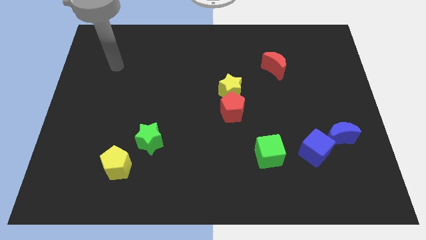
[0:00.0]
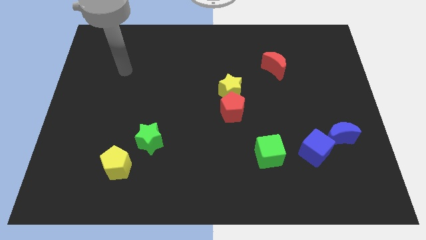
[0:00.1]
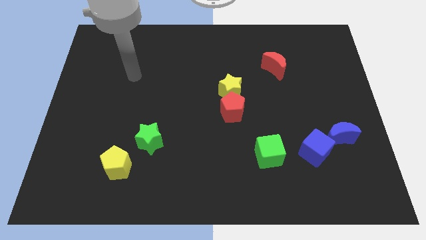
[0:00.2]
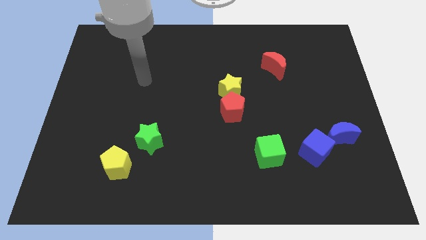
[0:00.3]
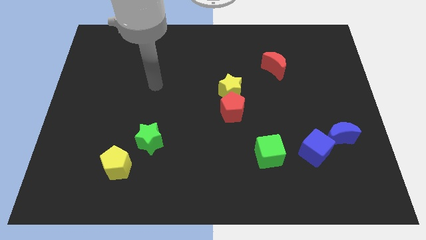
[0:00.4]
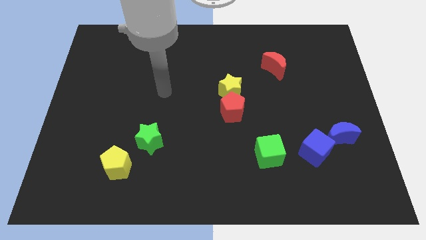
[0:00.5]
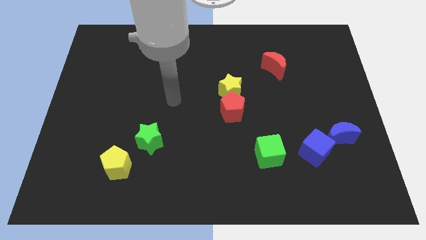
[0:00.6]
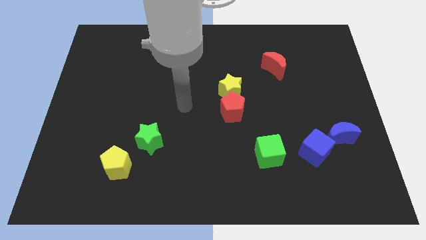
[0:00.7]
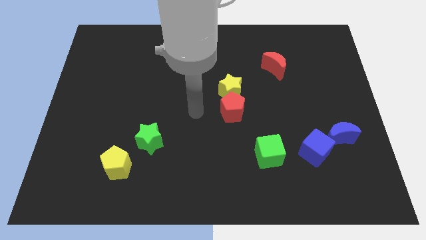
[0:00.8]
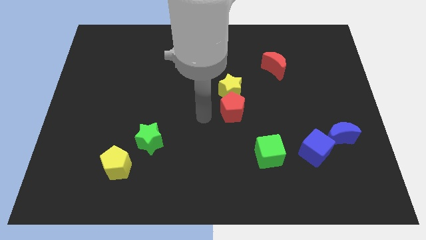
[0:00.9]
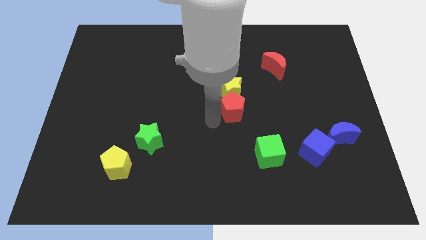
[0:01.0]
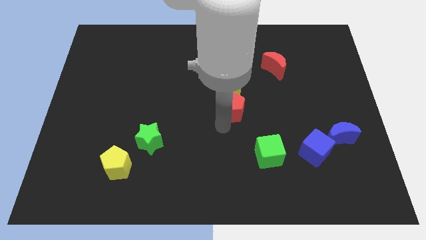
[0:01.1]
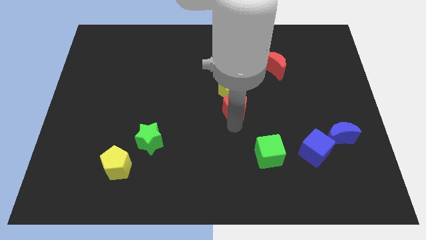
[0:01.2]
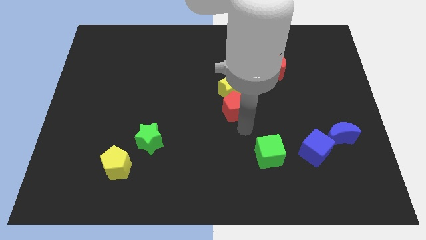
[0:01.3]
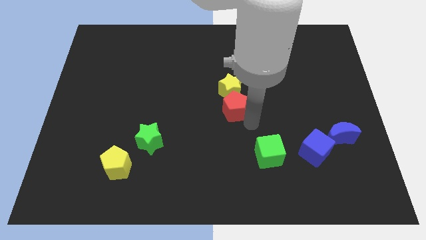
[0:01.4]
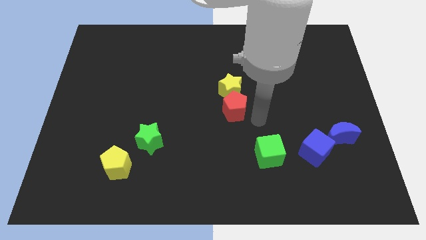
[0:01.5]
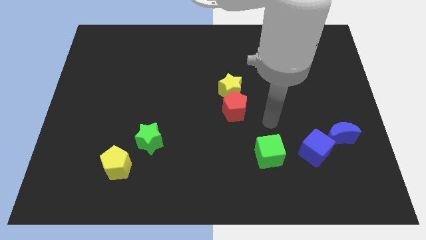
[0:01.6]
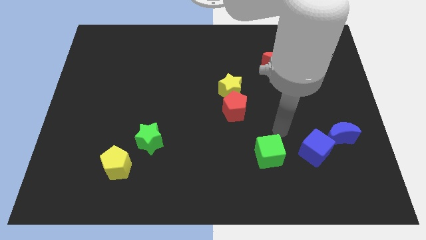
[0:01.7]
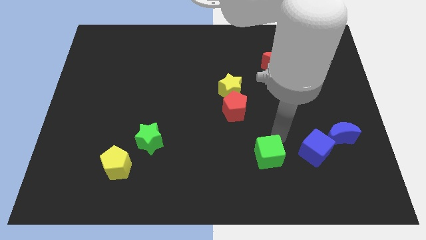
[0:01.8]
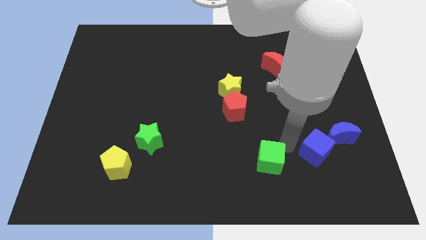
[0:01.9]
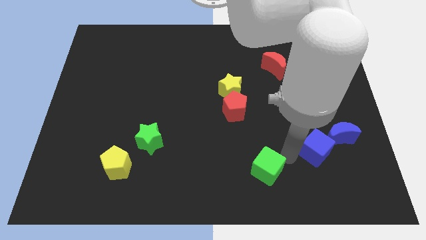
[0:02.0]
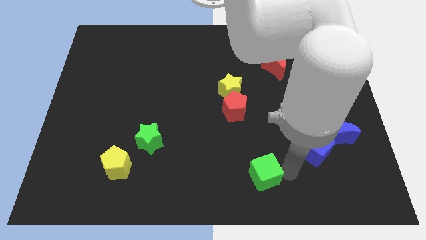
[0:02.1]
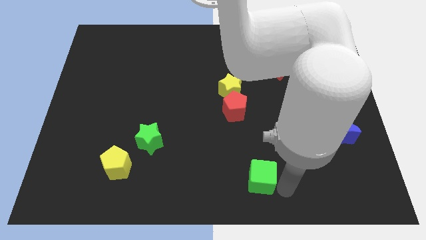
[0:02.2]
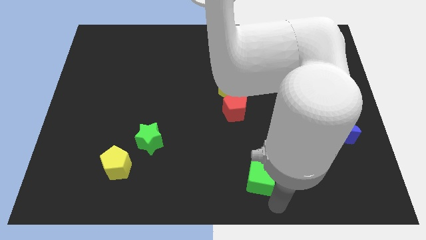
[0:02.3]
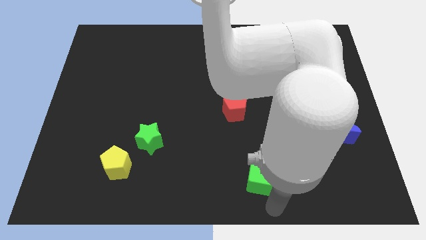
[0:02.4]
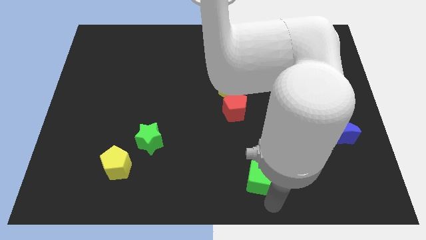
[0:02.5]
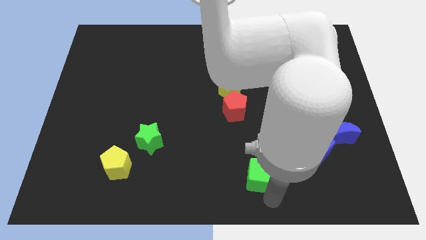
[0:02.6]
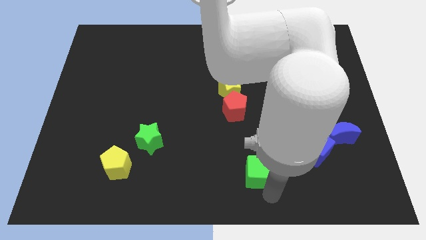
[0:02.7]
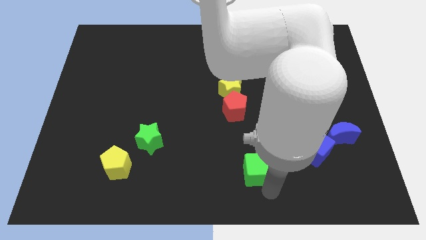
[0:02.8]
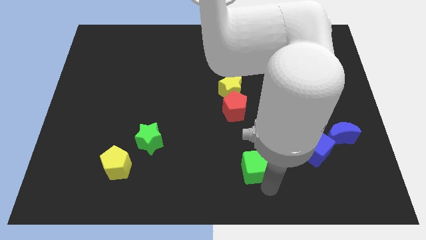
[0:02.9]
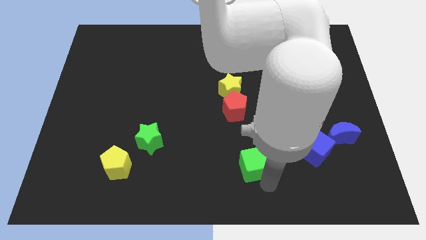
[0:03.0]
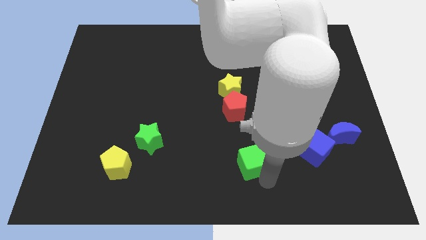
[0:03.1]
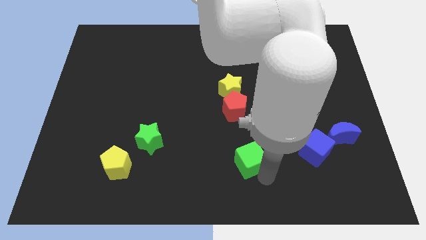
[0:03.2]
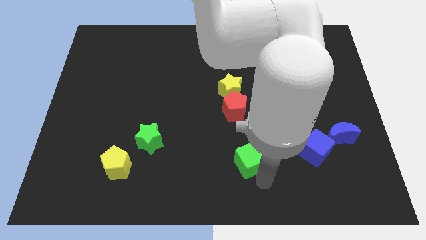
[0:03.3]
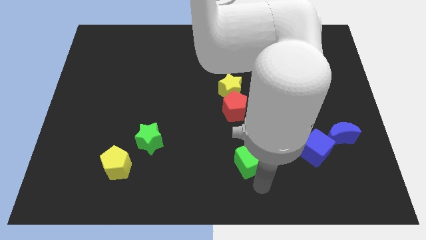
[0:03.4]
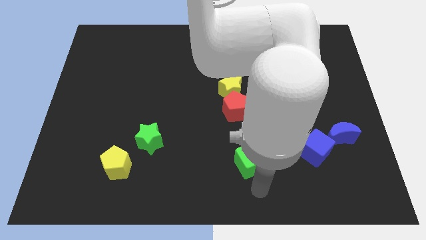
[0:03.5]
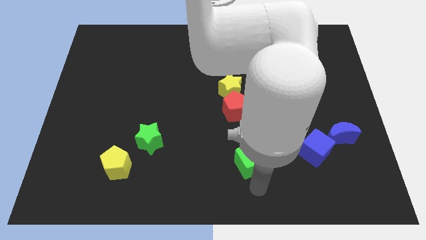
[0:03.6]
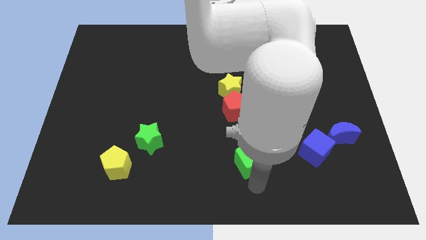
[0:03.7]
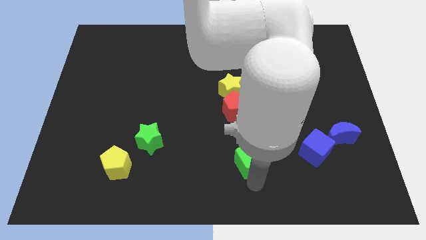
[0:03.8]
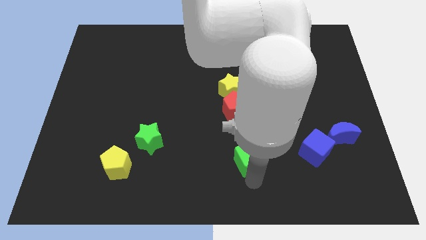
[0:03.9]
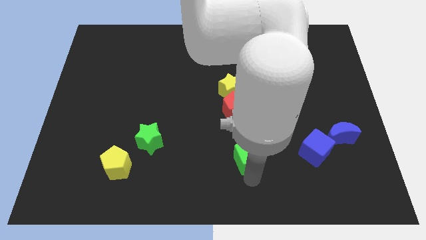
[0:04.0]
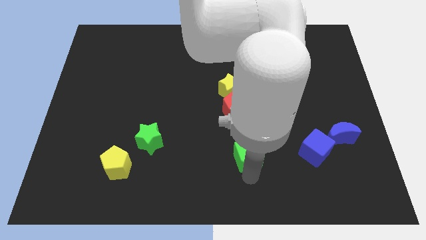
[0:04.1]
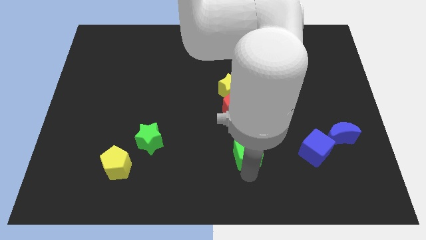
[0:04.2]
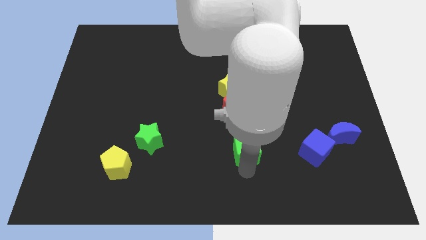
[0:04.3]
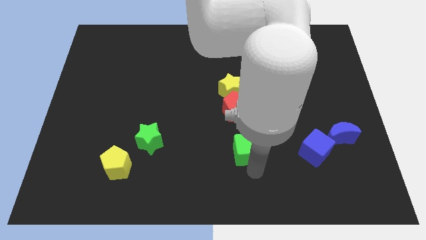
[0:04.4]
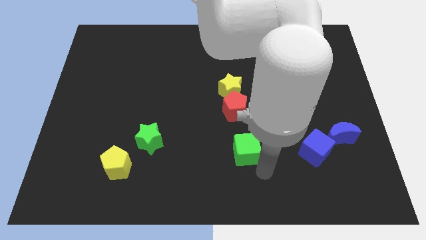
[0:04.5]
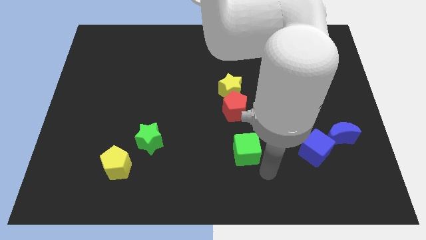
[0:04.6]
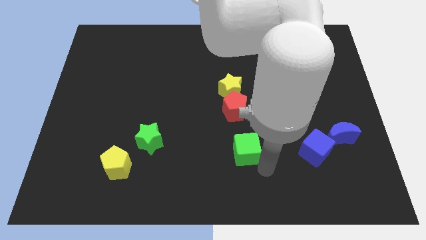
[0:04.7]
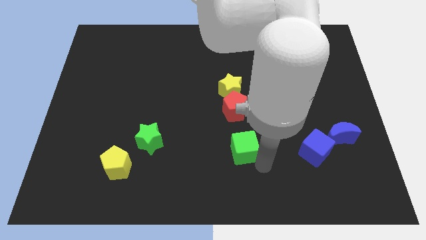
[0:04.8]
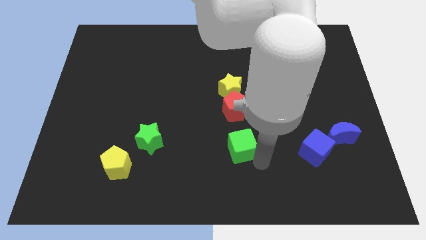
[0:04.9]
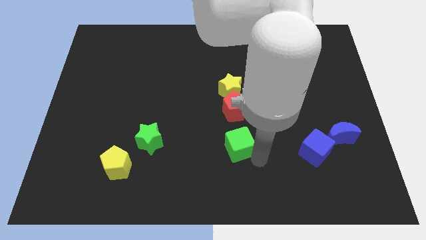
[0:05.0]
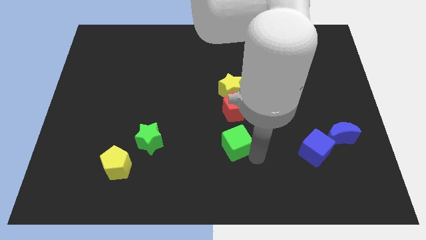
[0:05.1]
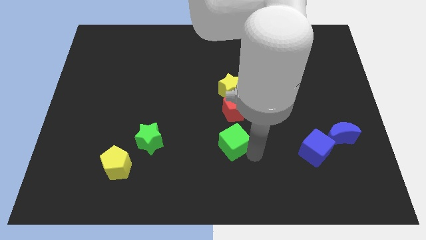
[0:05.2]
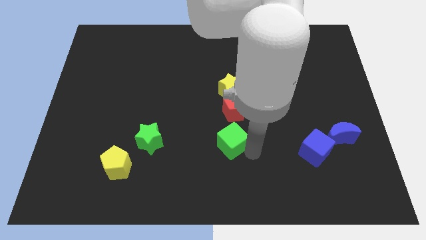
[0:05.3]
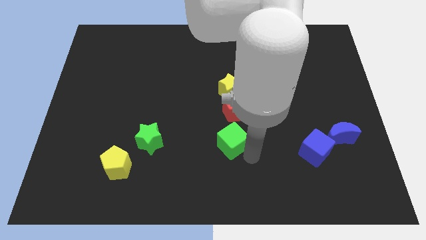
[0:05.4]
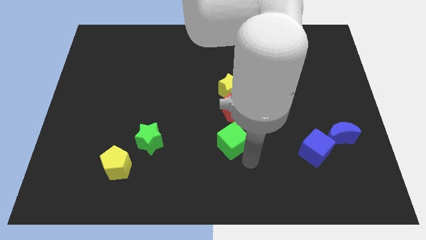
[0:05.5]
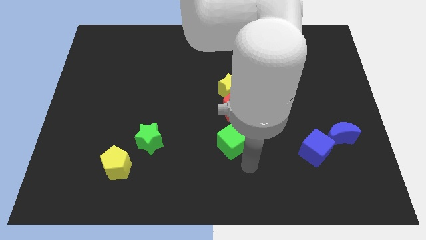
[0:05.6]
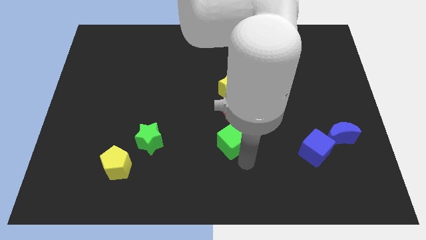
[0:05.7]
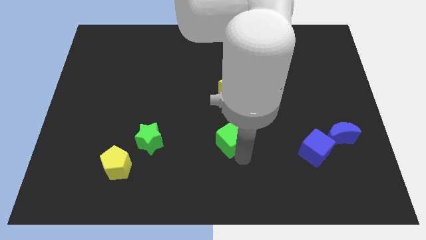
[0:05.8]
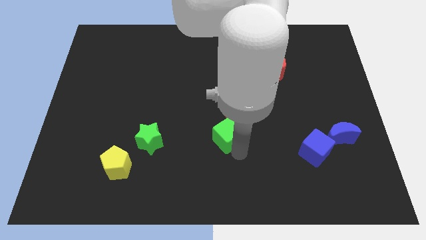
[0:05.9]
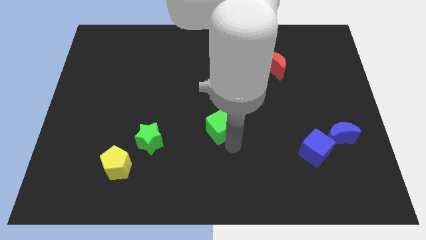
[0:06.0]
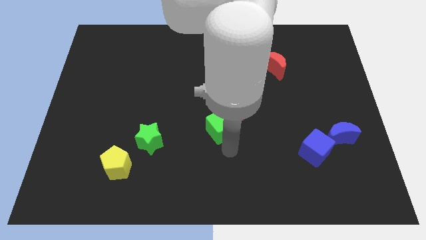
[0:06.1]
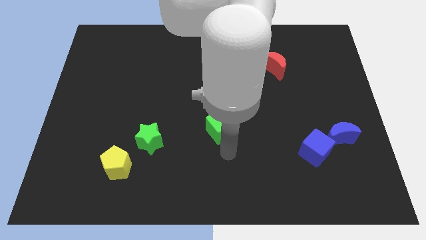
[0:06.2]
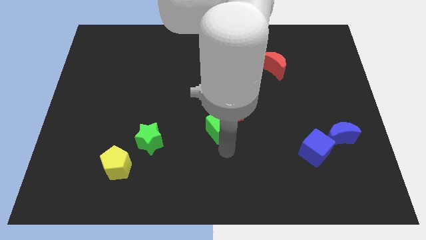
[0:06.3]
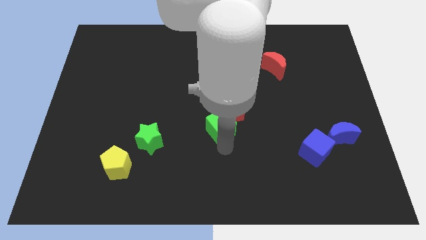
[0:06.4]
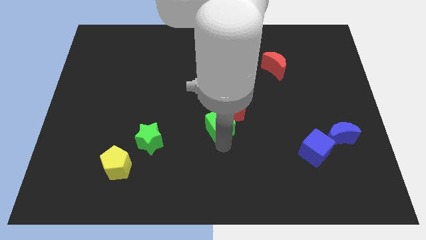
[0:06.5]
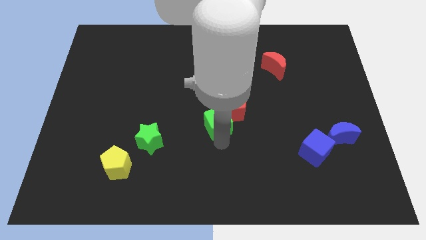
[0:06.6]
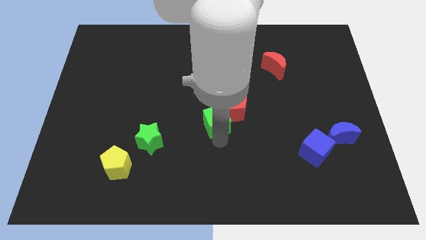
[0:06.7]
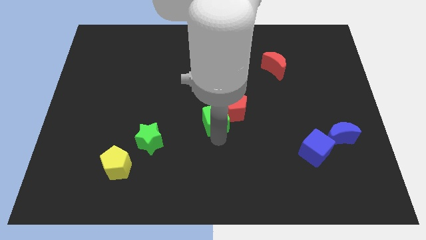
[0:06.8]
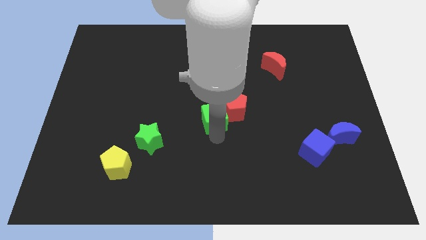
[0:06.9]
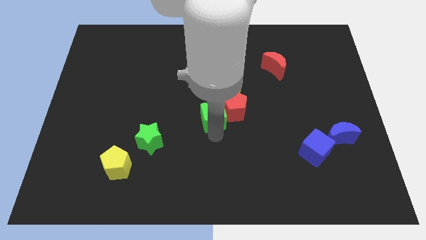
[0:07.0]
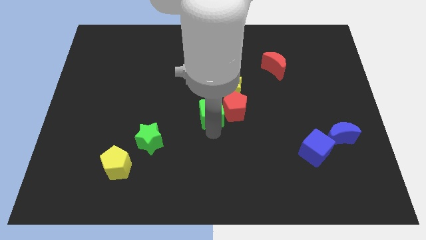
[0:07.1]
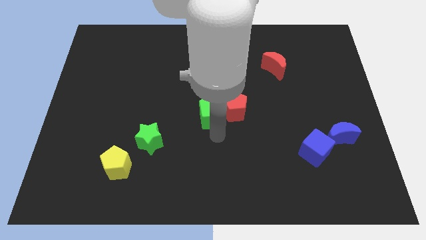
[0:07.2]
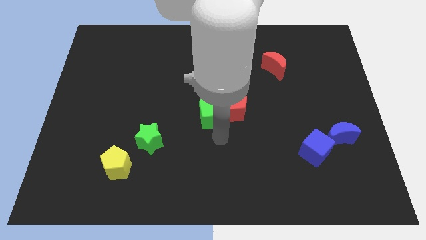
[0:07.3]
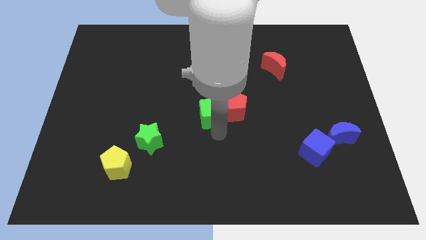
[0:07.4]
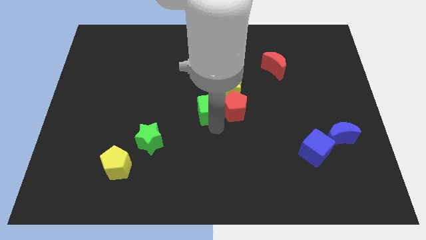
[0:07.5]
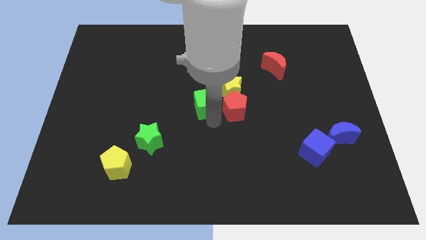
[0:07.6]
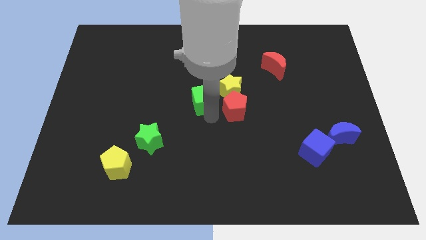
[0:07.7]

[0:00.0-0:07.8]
push the green cube diagonally upwards and to the left
